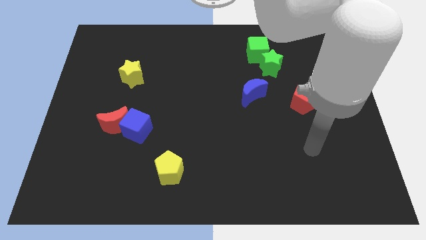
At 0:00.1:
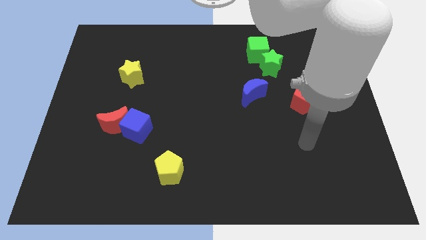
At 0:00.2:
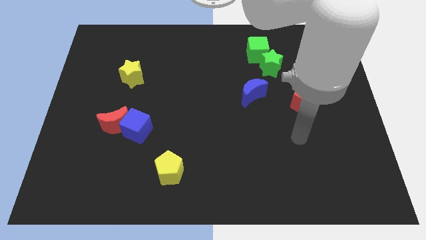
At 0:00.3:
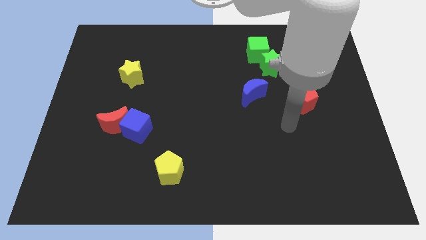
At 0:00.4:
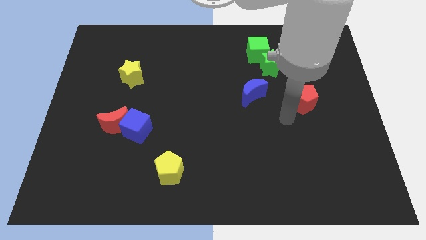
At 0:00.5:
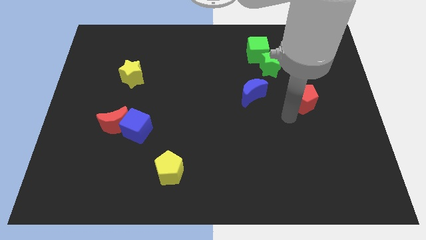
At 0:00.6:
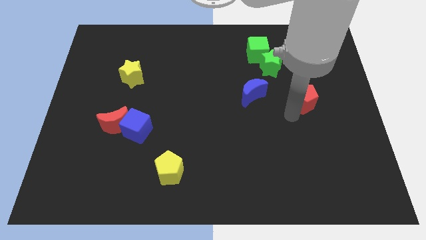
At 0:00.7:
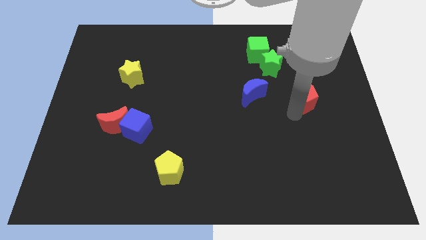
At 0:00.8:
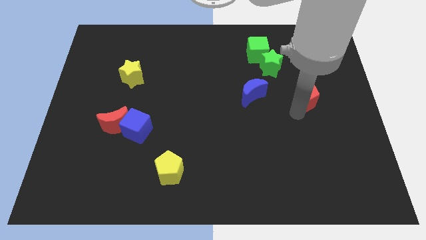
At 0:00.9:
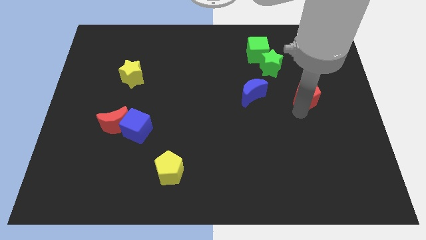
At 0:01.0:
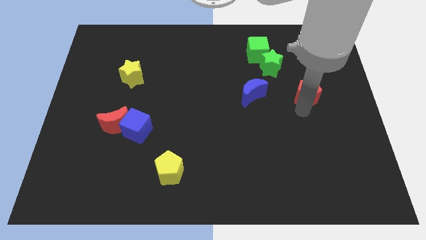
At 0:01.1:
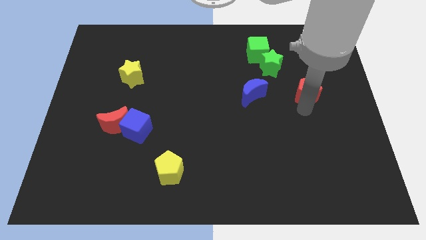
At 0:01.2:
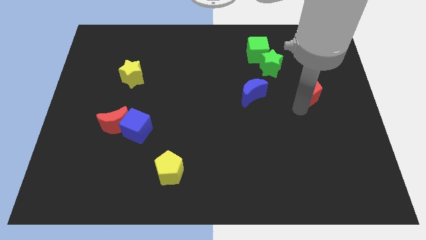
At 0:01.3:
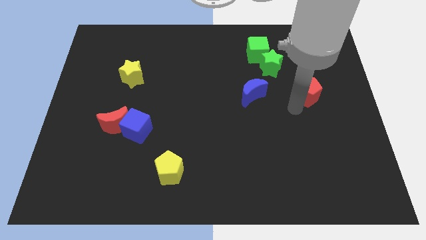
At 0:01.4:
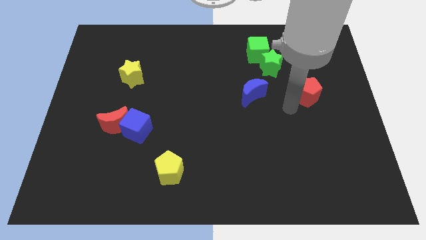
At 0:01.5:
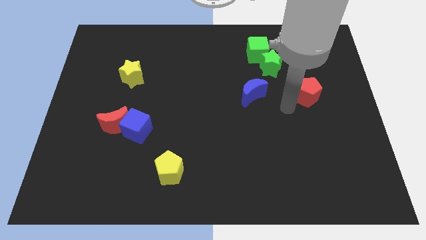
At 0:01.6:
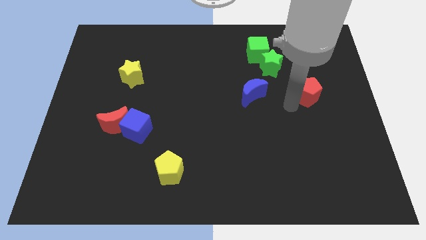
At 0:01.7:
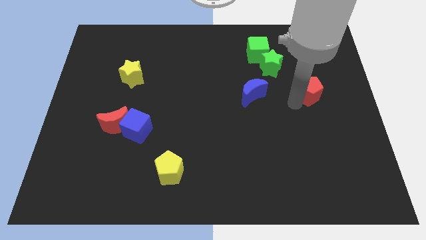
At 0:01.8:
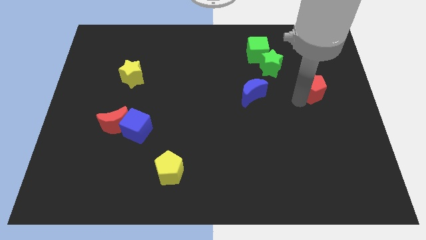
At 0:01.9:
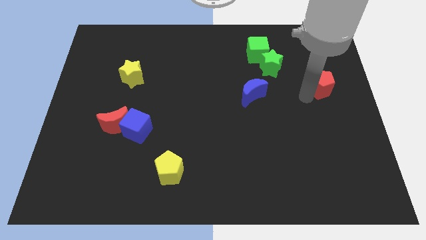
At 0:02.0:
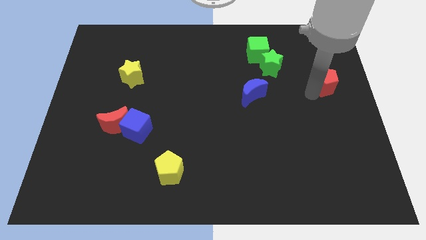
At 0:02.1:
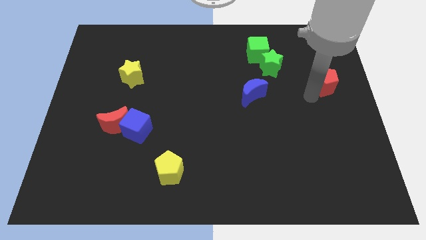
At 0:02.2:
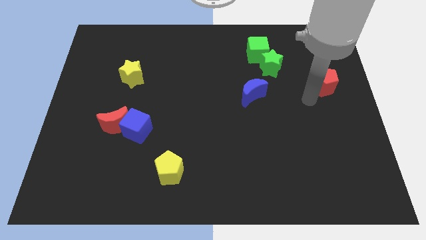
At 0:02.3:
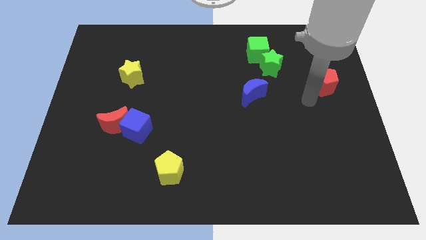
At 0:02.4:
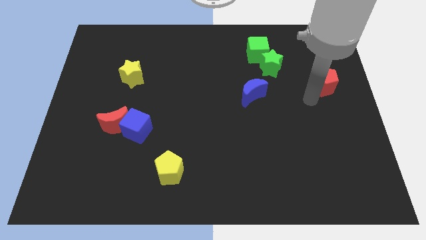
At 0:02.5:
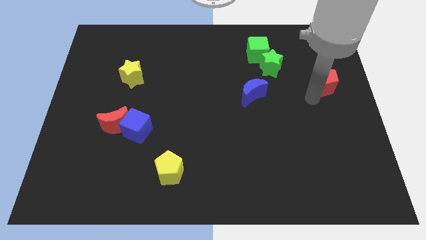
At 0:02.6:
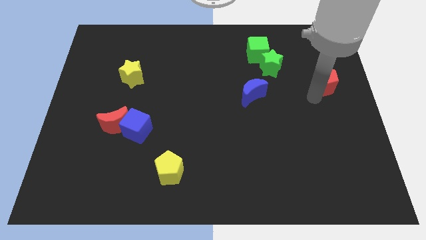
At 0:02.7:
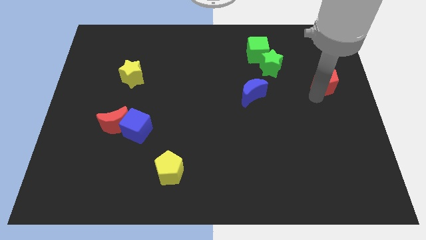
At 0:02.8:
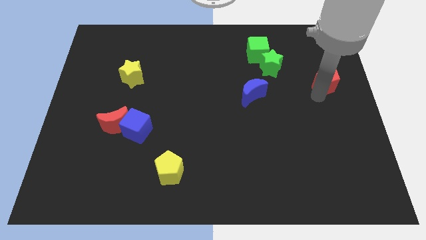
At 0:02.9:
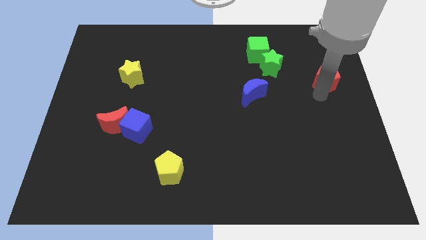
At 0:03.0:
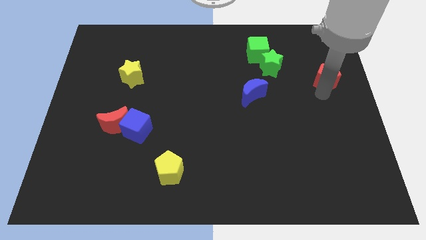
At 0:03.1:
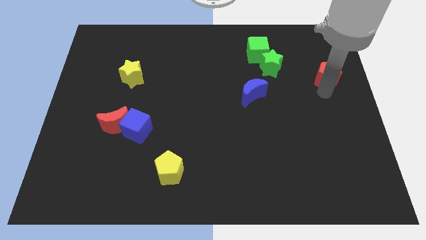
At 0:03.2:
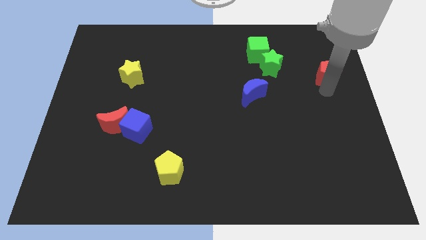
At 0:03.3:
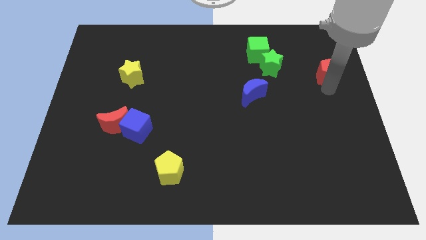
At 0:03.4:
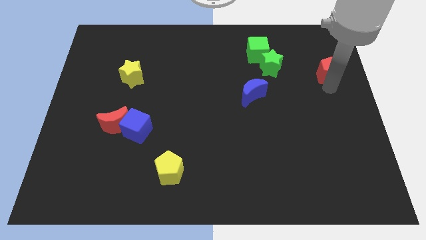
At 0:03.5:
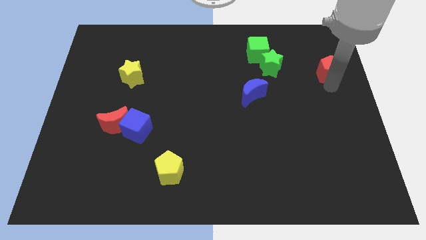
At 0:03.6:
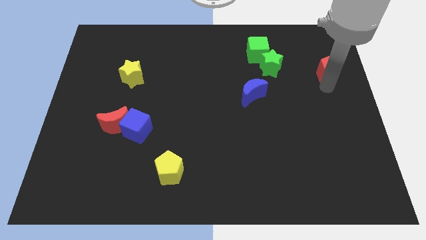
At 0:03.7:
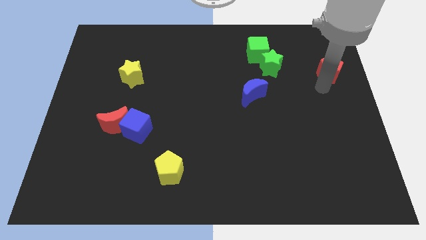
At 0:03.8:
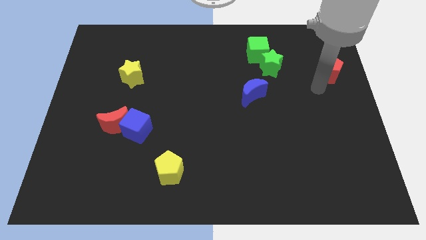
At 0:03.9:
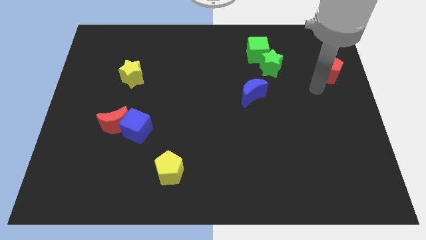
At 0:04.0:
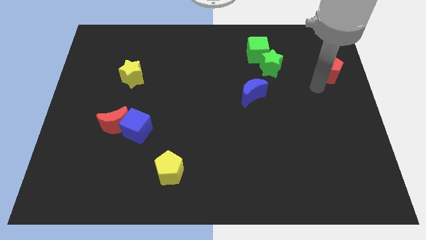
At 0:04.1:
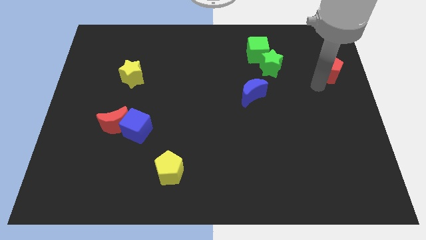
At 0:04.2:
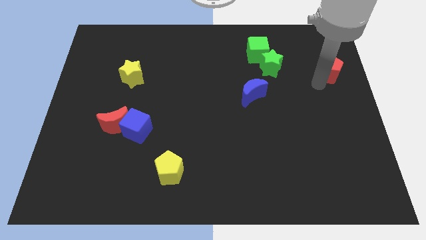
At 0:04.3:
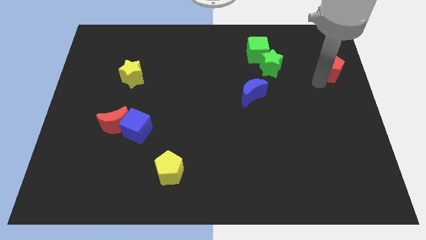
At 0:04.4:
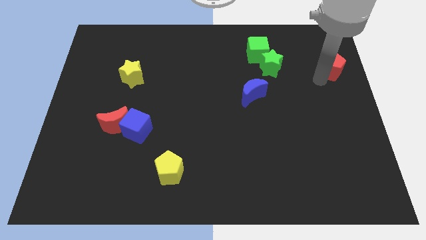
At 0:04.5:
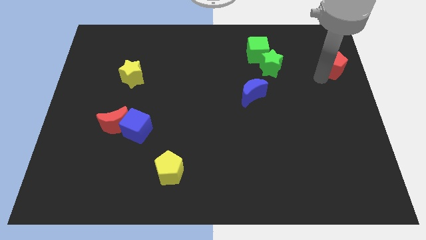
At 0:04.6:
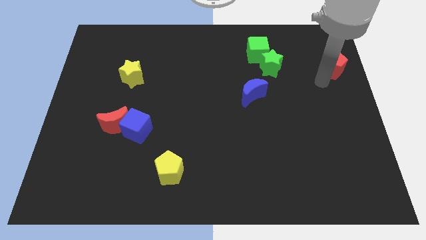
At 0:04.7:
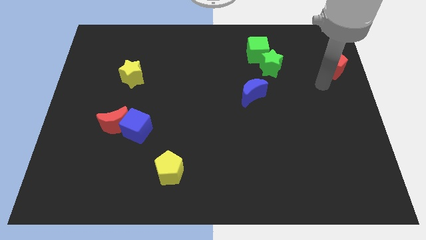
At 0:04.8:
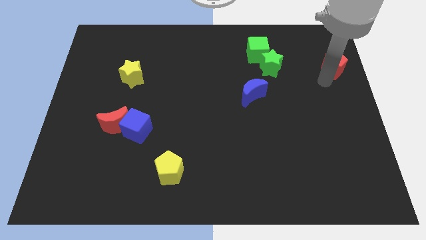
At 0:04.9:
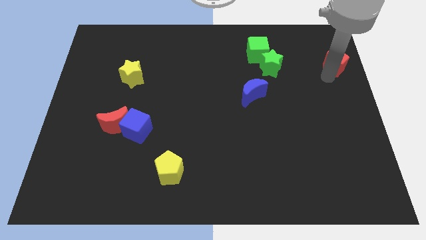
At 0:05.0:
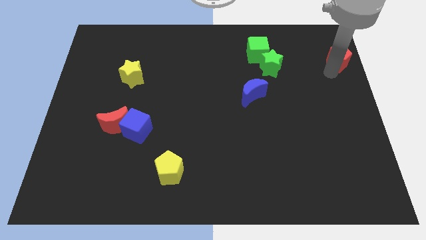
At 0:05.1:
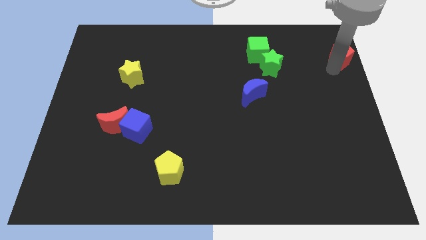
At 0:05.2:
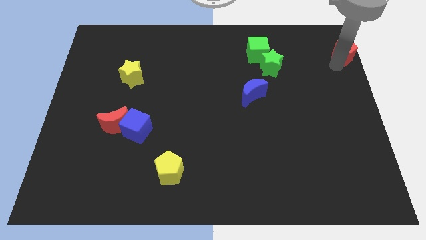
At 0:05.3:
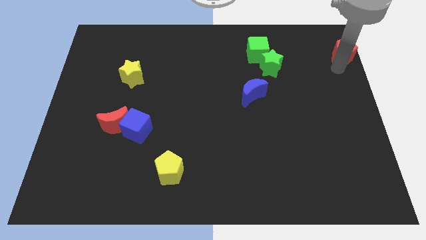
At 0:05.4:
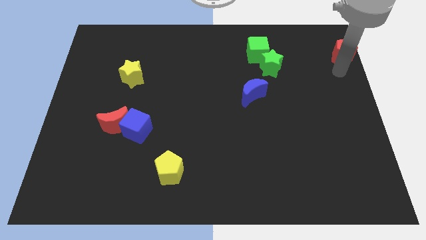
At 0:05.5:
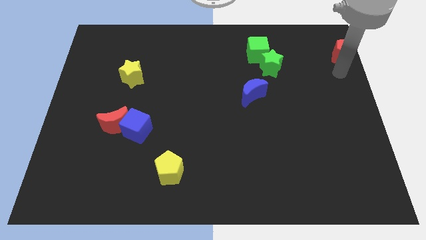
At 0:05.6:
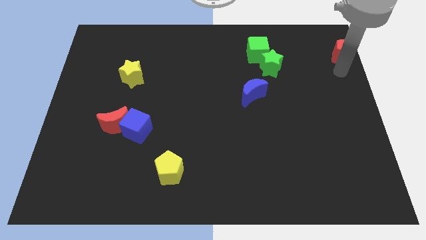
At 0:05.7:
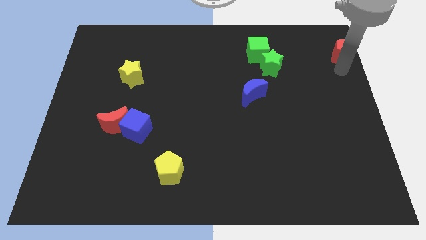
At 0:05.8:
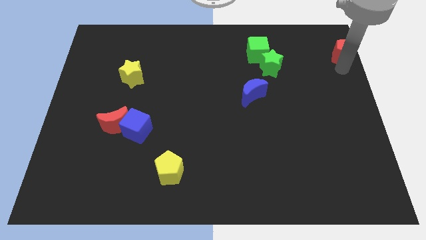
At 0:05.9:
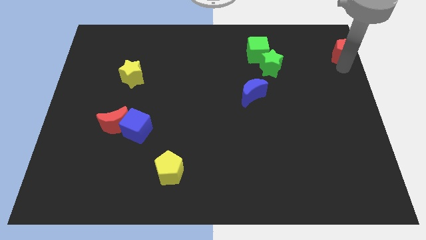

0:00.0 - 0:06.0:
push the red pentagon to the upper right corner

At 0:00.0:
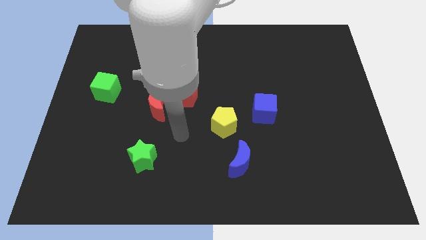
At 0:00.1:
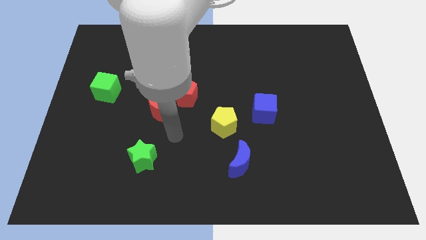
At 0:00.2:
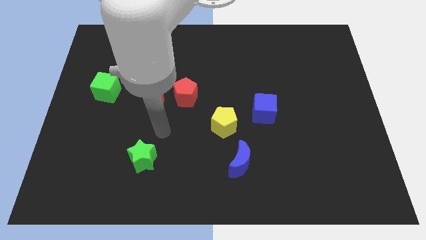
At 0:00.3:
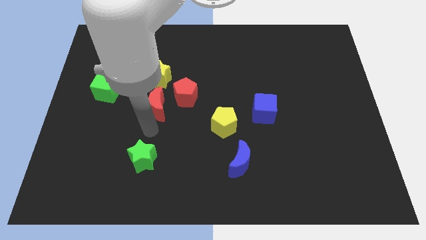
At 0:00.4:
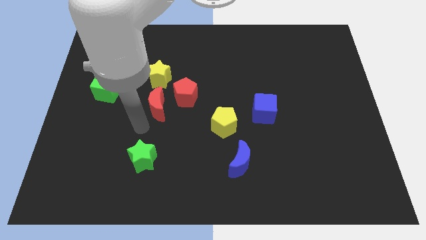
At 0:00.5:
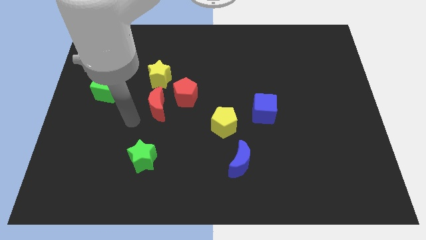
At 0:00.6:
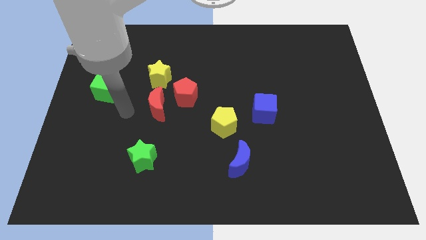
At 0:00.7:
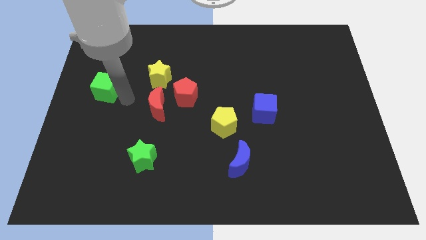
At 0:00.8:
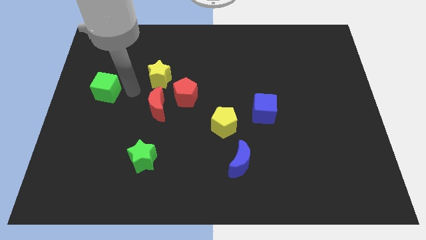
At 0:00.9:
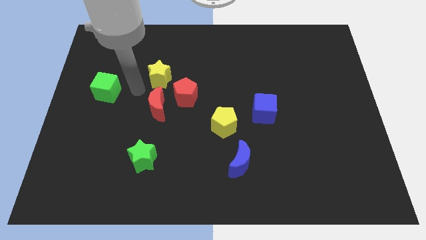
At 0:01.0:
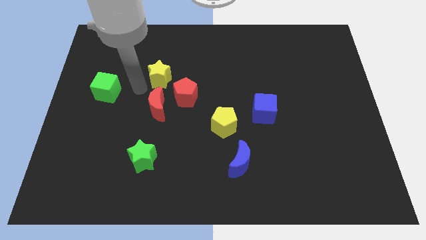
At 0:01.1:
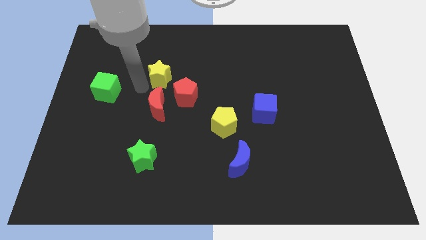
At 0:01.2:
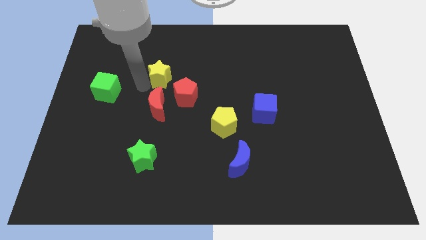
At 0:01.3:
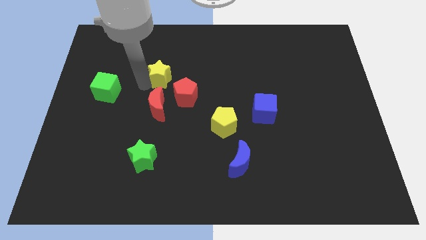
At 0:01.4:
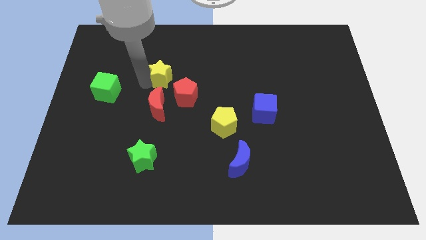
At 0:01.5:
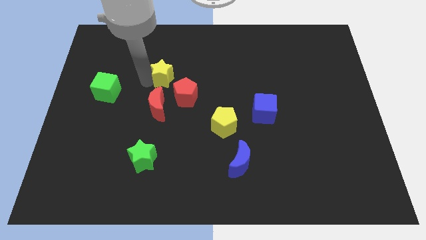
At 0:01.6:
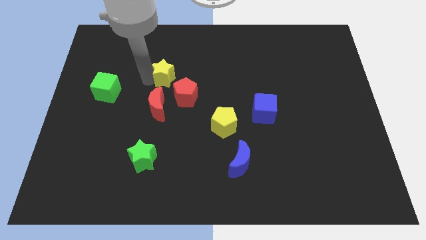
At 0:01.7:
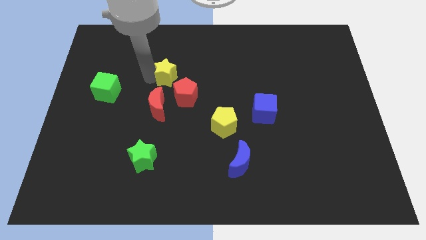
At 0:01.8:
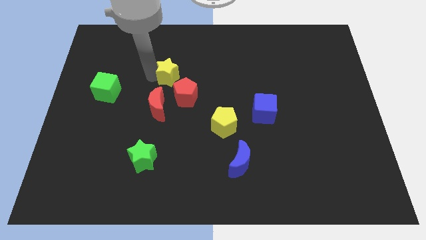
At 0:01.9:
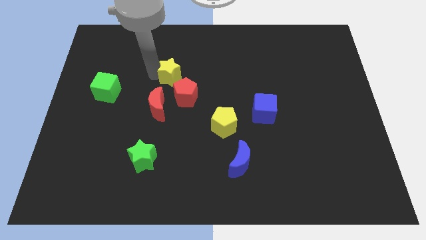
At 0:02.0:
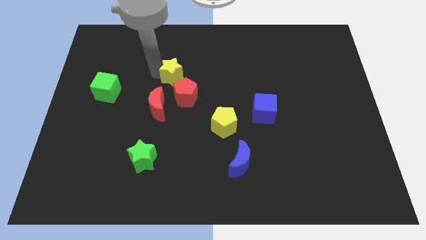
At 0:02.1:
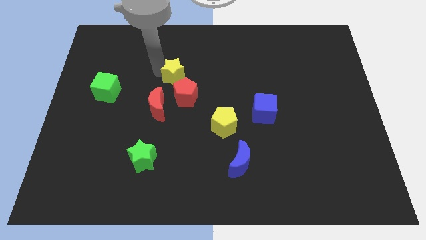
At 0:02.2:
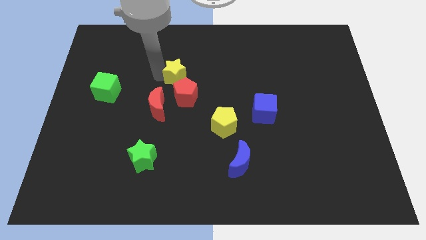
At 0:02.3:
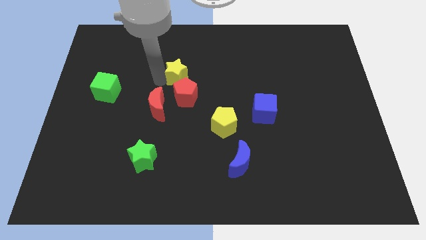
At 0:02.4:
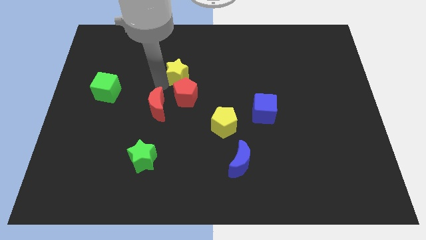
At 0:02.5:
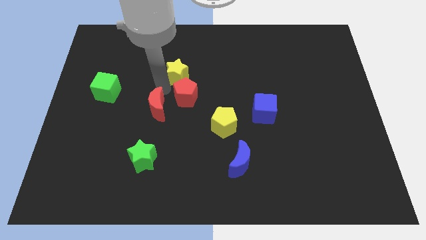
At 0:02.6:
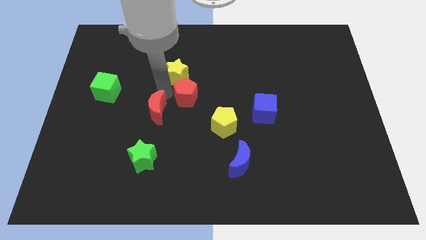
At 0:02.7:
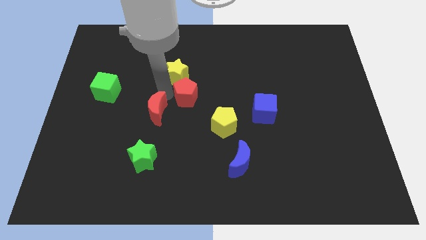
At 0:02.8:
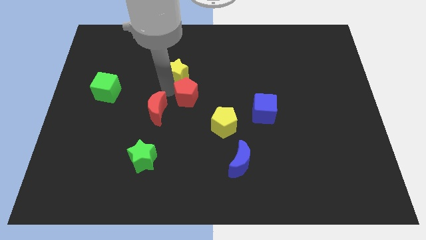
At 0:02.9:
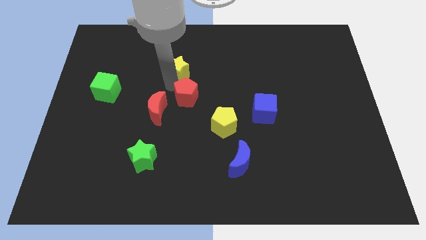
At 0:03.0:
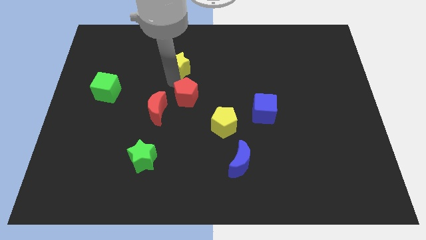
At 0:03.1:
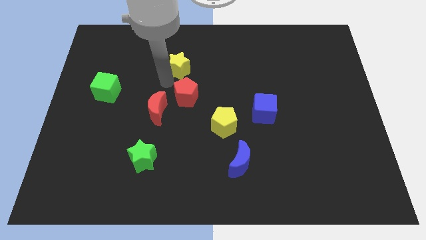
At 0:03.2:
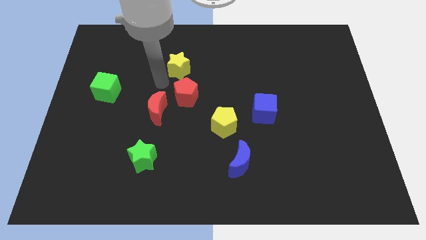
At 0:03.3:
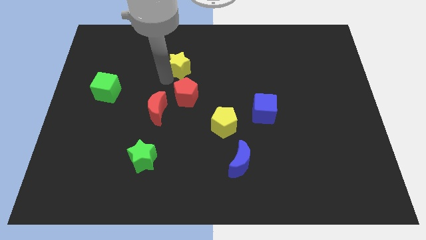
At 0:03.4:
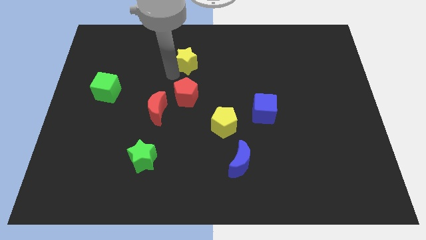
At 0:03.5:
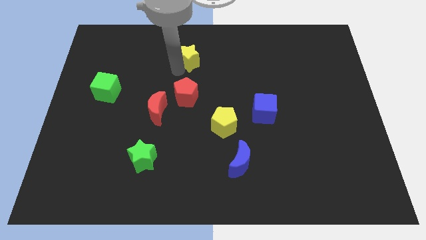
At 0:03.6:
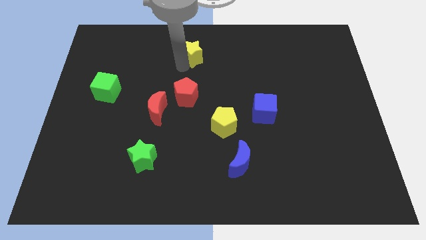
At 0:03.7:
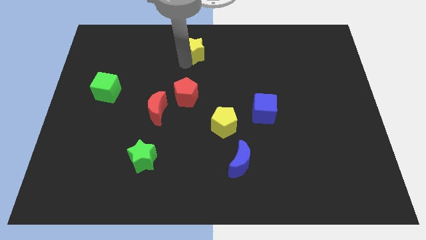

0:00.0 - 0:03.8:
slide the yellow star to the top side
